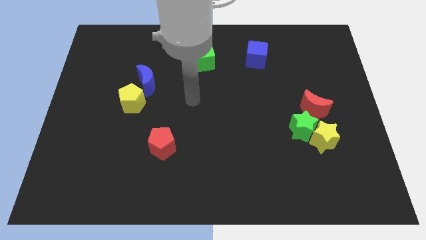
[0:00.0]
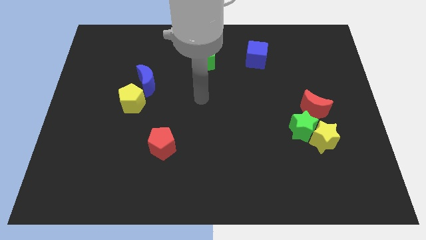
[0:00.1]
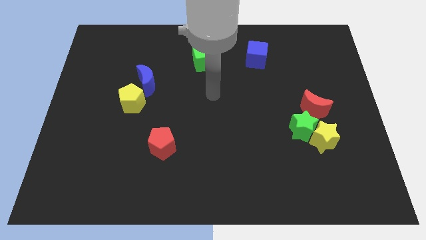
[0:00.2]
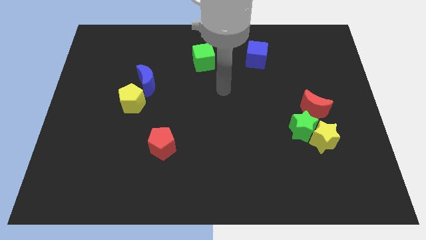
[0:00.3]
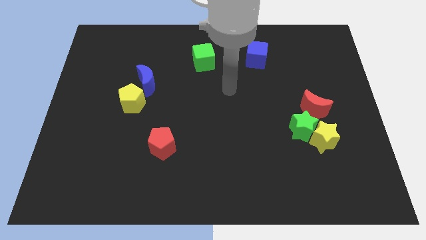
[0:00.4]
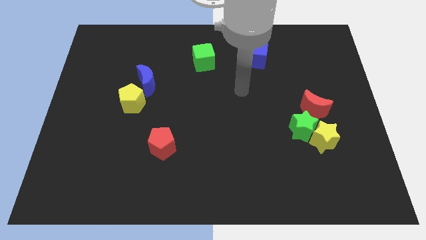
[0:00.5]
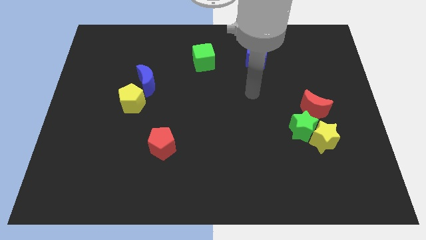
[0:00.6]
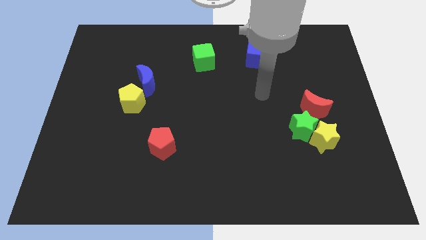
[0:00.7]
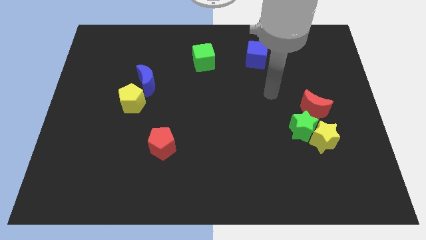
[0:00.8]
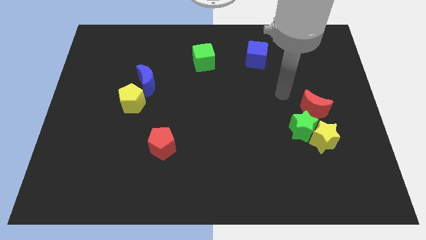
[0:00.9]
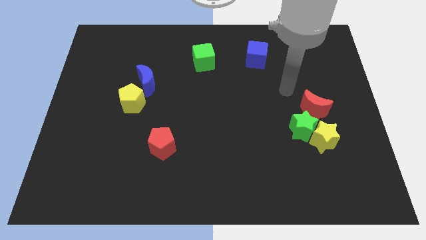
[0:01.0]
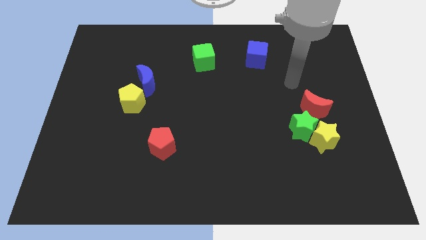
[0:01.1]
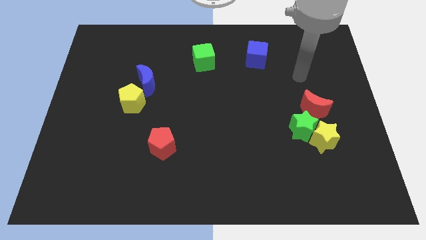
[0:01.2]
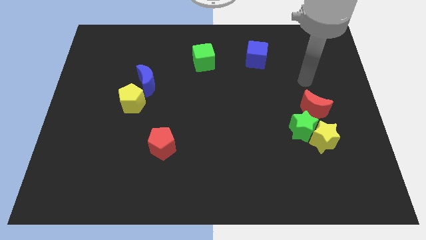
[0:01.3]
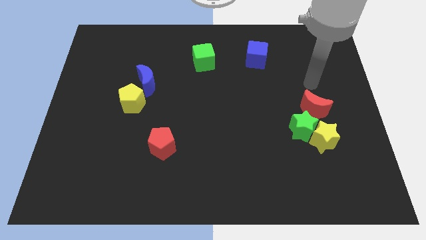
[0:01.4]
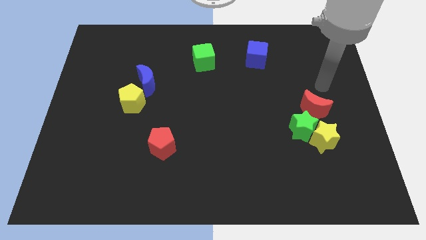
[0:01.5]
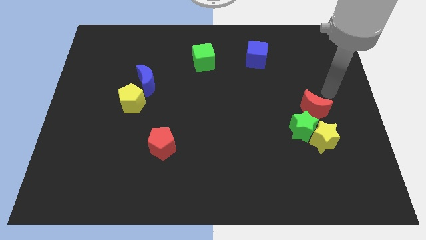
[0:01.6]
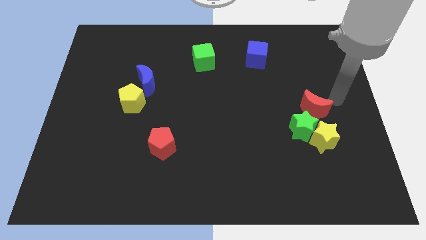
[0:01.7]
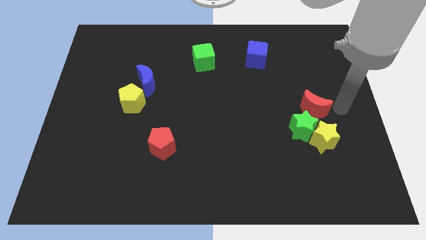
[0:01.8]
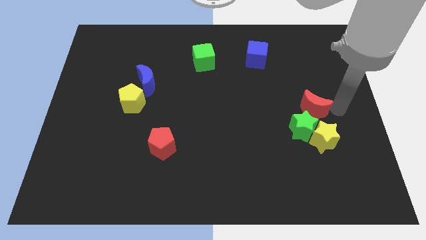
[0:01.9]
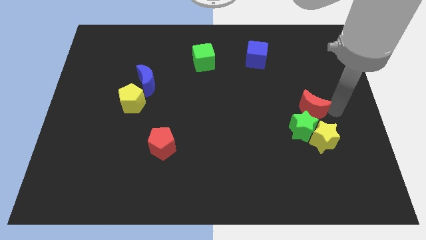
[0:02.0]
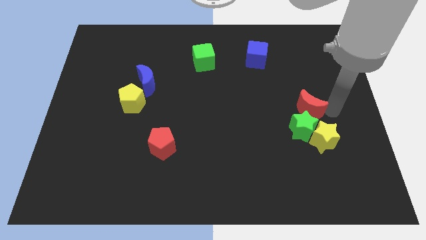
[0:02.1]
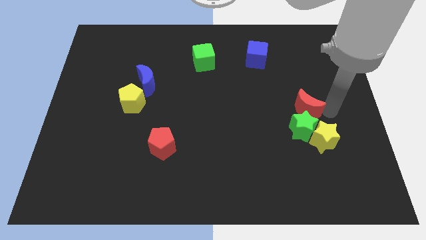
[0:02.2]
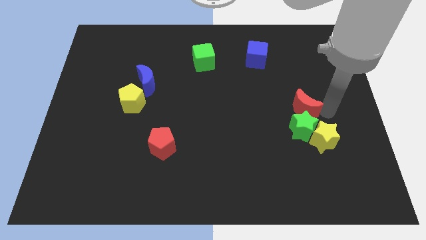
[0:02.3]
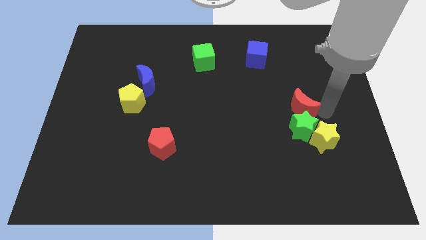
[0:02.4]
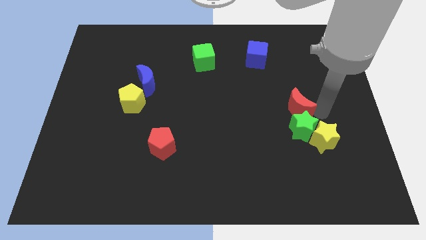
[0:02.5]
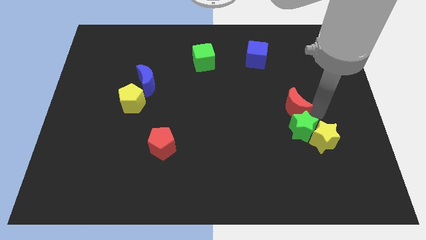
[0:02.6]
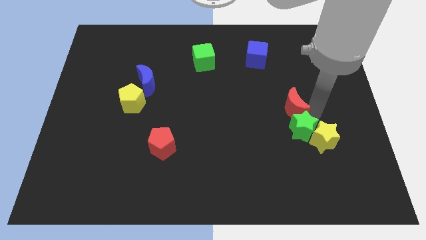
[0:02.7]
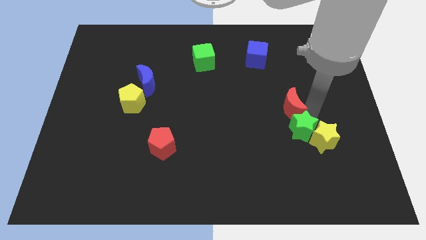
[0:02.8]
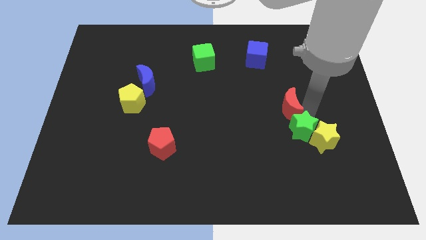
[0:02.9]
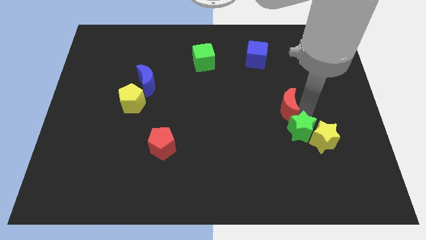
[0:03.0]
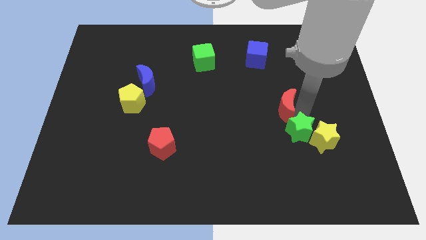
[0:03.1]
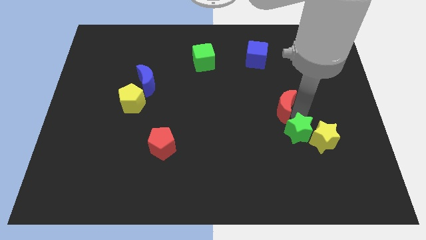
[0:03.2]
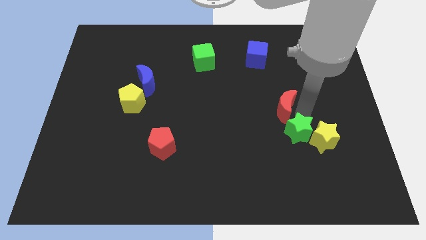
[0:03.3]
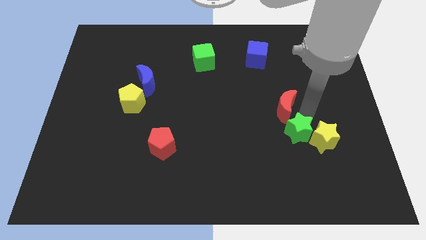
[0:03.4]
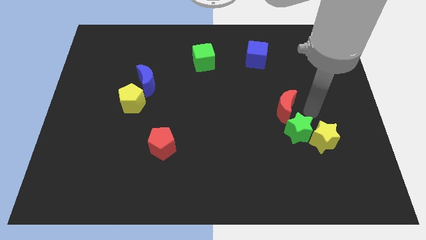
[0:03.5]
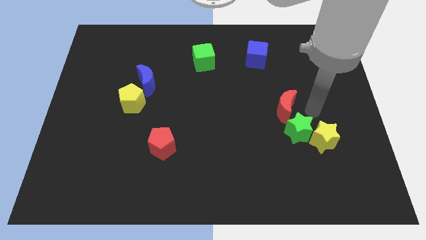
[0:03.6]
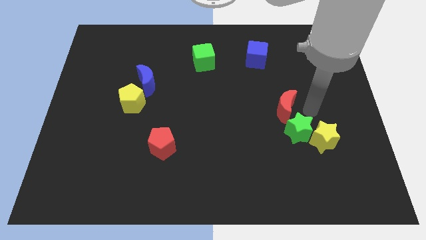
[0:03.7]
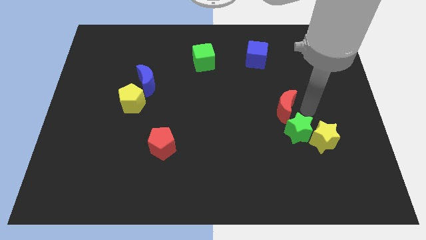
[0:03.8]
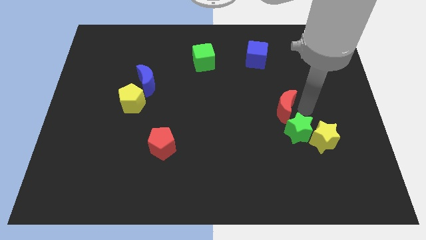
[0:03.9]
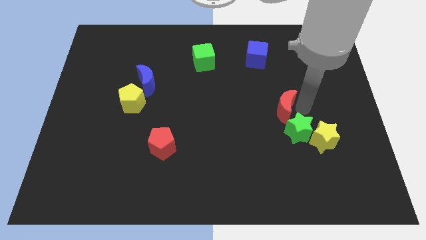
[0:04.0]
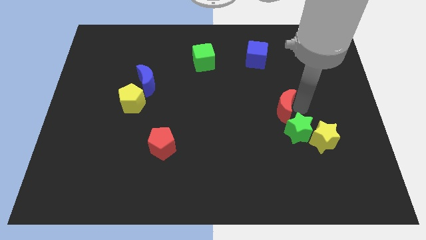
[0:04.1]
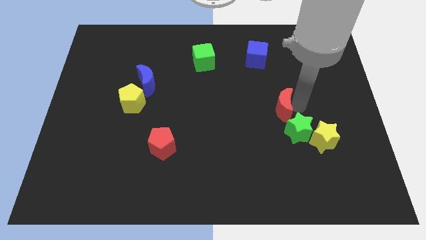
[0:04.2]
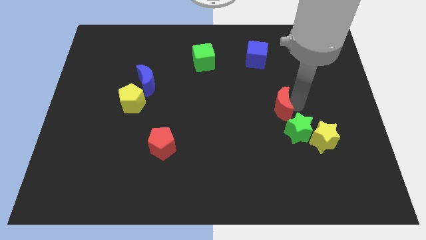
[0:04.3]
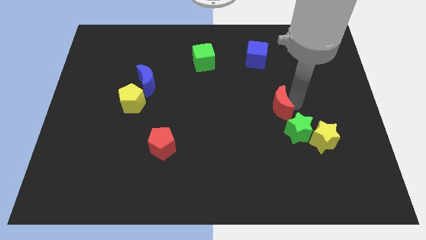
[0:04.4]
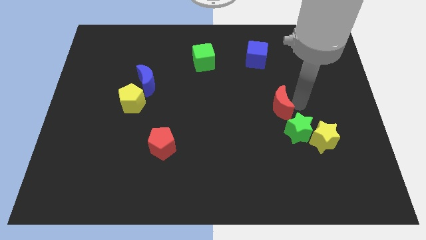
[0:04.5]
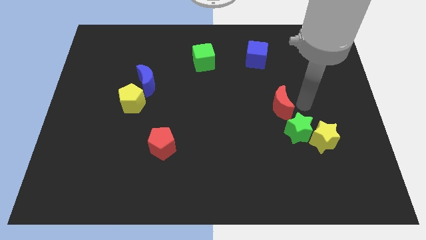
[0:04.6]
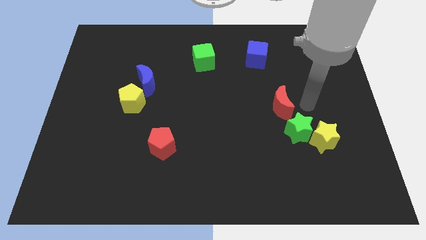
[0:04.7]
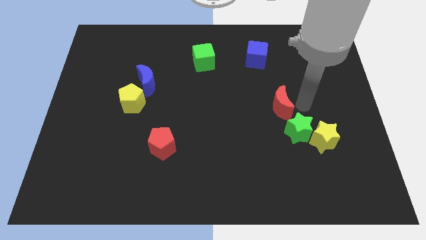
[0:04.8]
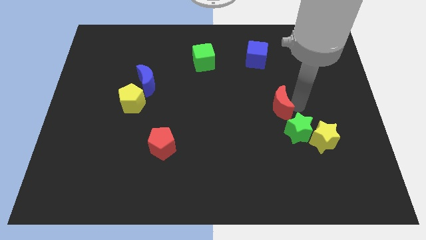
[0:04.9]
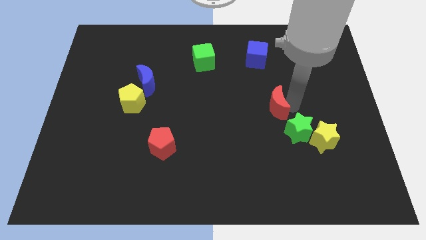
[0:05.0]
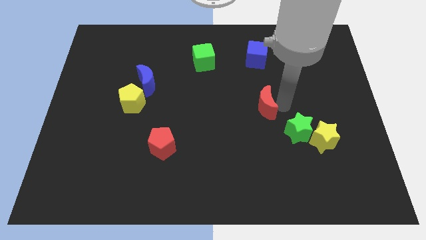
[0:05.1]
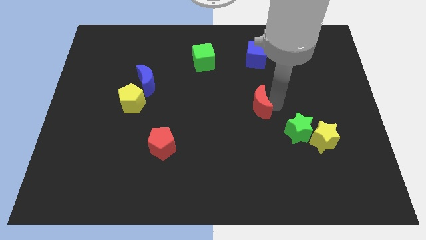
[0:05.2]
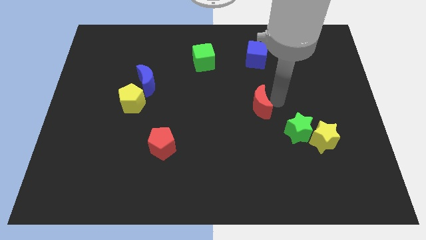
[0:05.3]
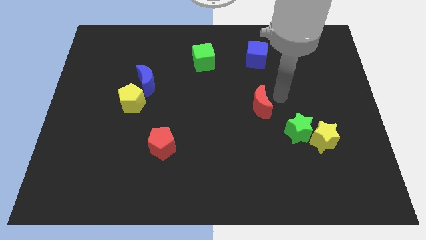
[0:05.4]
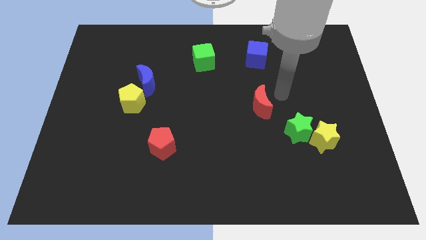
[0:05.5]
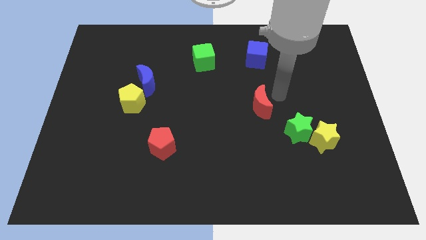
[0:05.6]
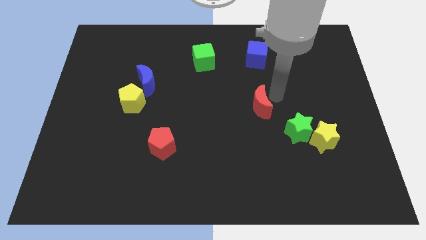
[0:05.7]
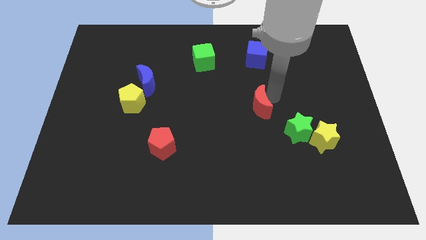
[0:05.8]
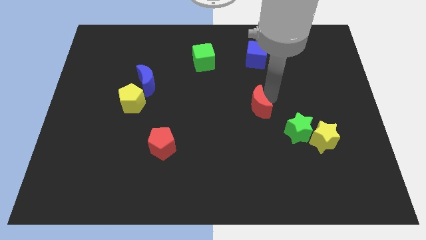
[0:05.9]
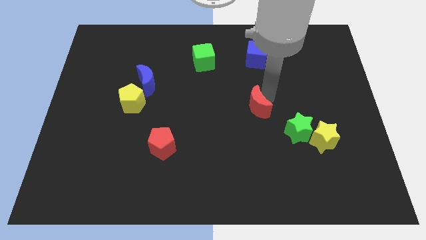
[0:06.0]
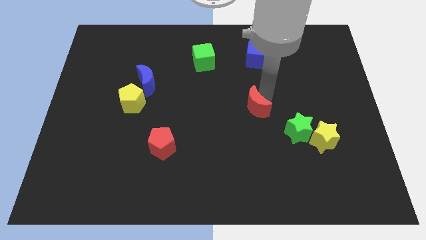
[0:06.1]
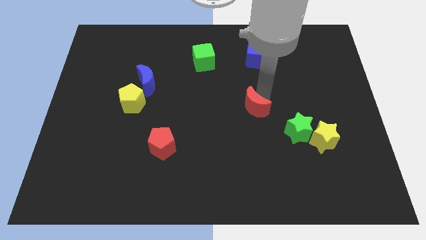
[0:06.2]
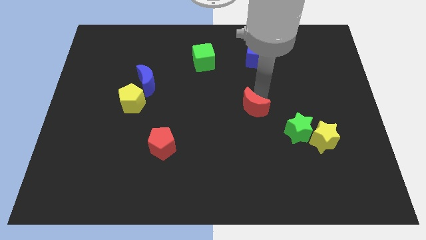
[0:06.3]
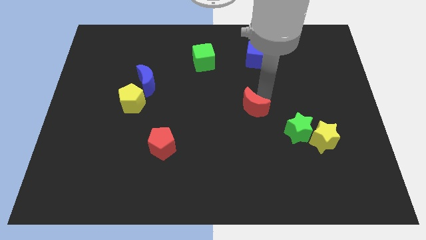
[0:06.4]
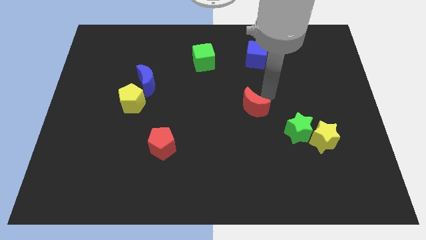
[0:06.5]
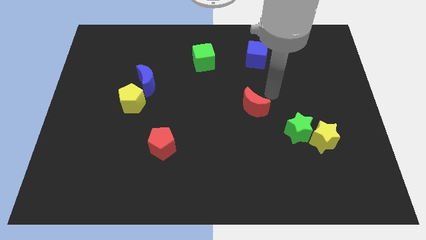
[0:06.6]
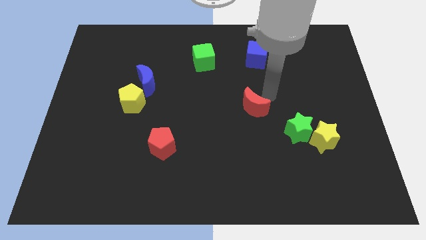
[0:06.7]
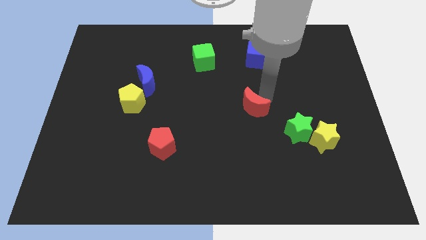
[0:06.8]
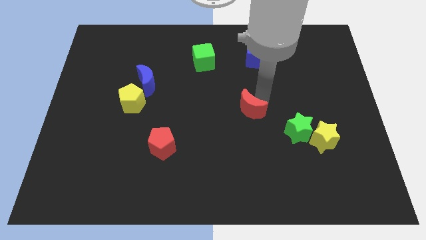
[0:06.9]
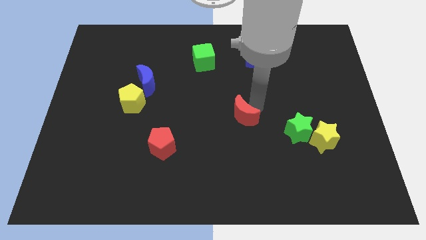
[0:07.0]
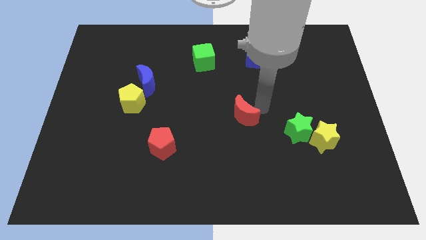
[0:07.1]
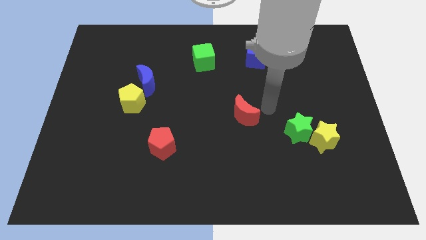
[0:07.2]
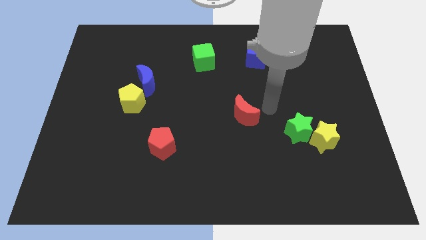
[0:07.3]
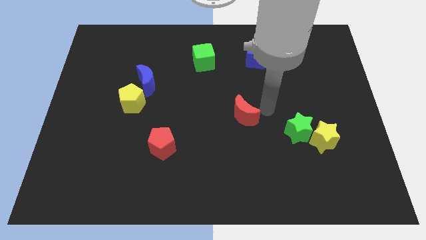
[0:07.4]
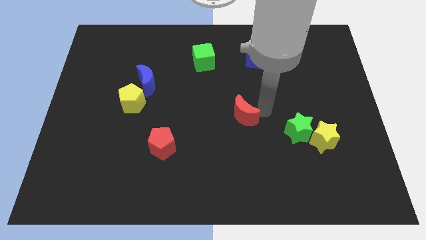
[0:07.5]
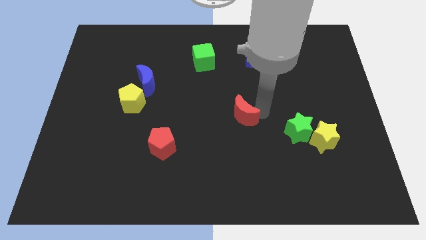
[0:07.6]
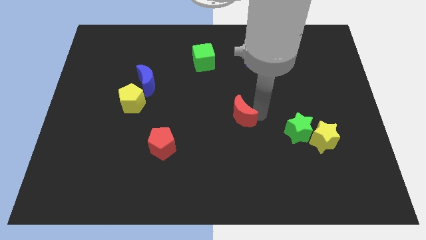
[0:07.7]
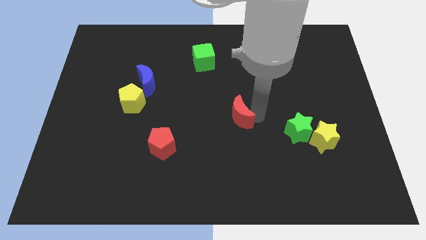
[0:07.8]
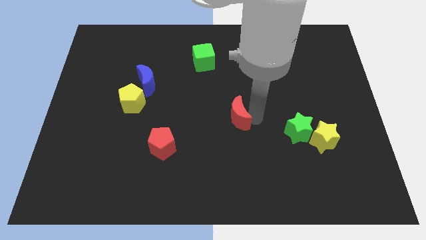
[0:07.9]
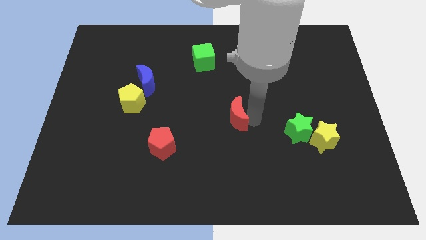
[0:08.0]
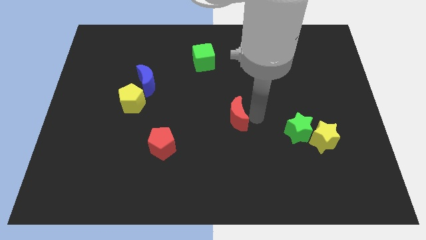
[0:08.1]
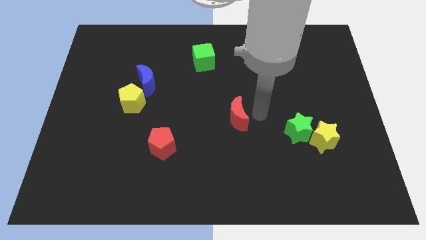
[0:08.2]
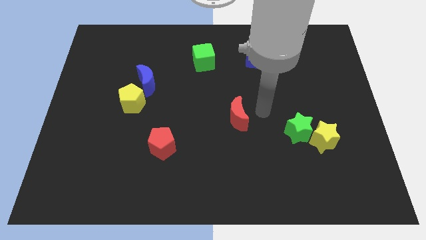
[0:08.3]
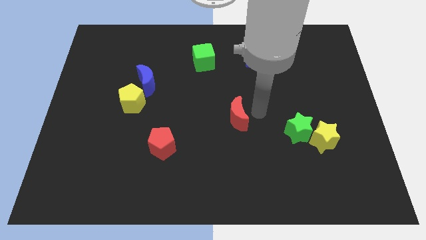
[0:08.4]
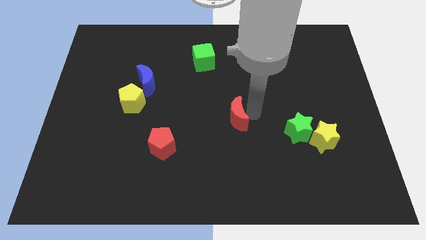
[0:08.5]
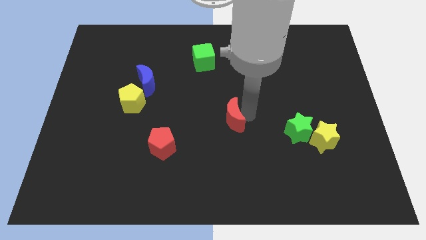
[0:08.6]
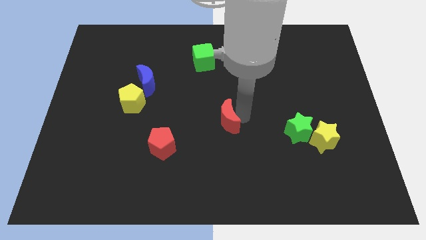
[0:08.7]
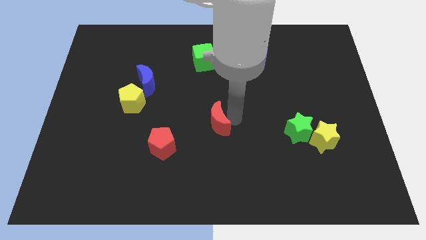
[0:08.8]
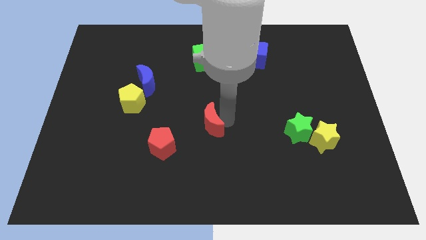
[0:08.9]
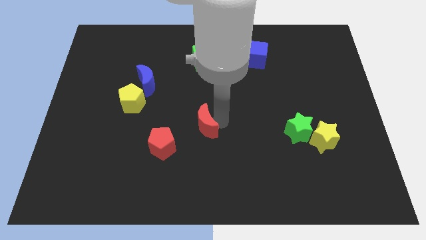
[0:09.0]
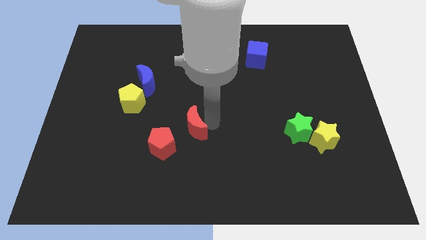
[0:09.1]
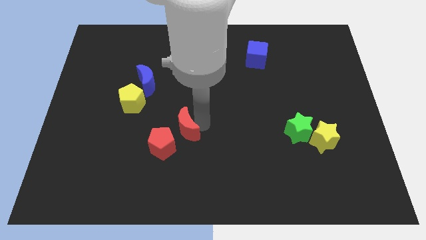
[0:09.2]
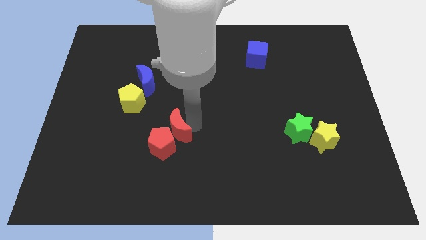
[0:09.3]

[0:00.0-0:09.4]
slide the red moon to the red pentagon
